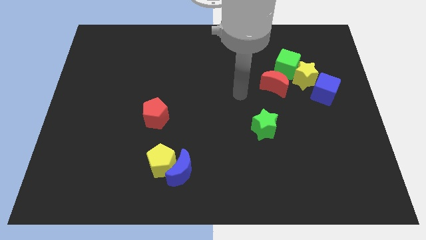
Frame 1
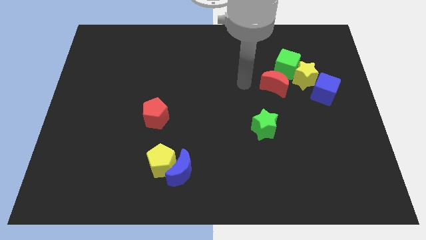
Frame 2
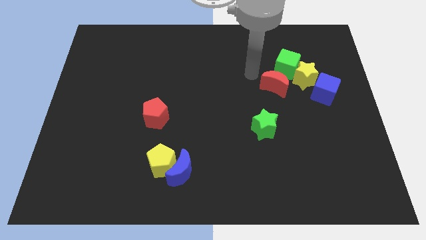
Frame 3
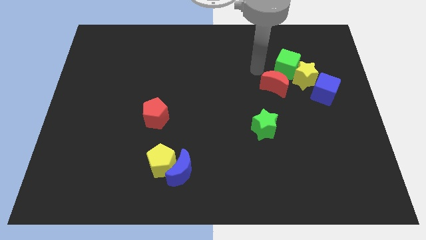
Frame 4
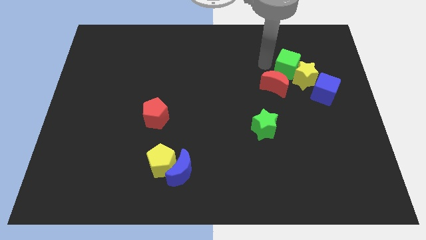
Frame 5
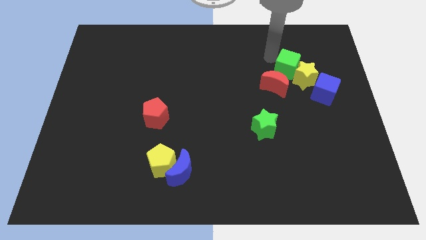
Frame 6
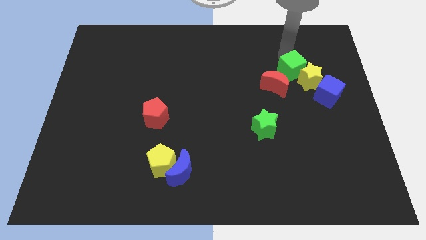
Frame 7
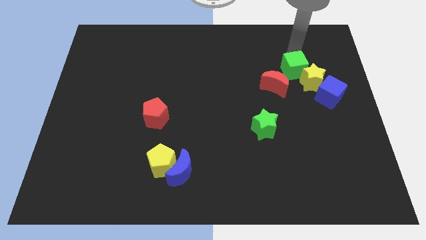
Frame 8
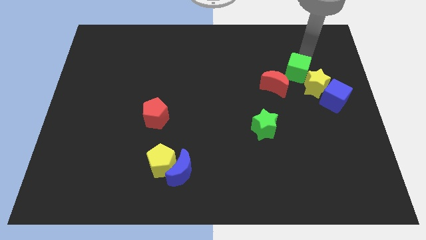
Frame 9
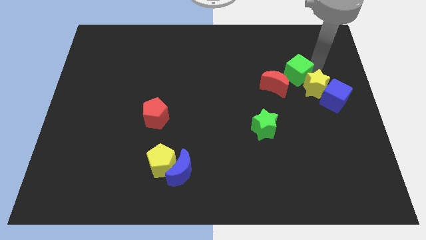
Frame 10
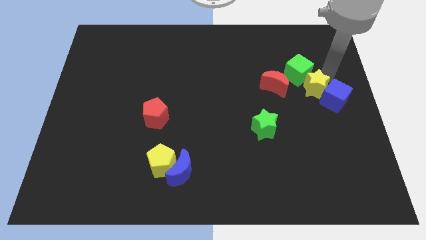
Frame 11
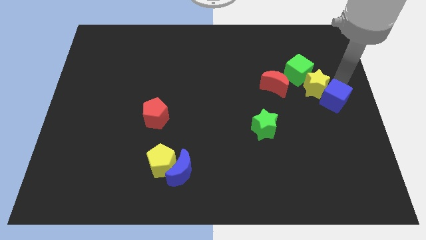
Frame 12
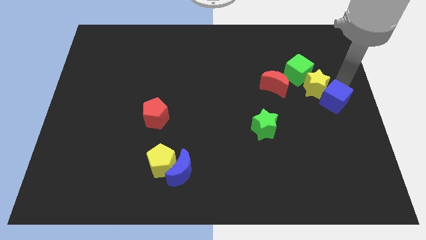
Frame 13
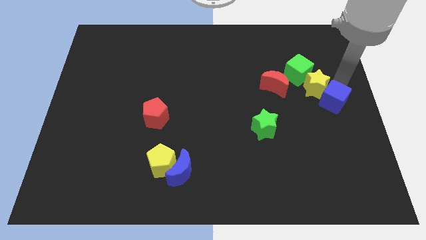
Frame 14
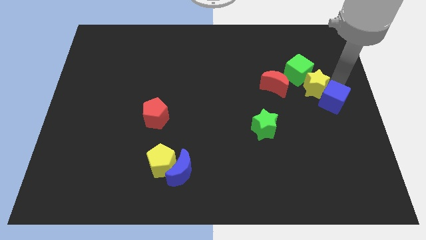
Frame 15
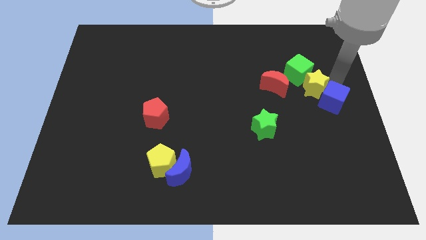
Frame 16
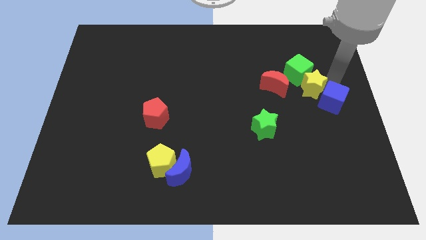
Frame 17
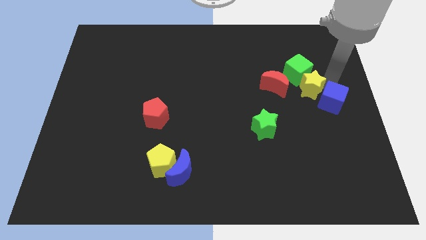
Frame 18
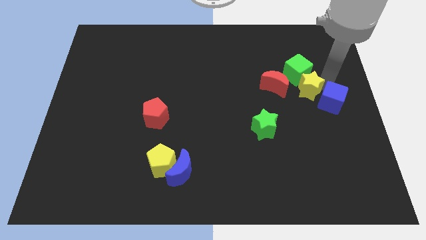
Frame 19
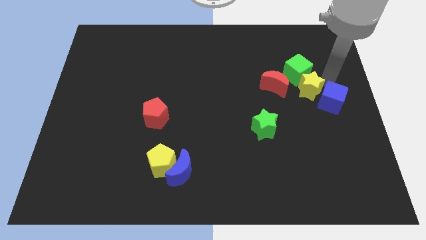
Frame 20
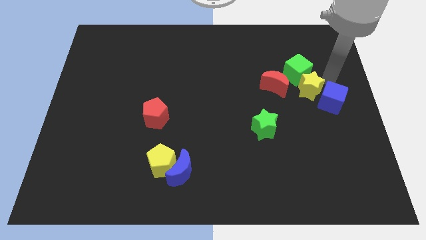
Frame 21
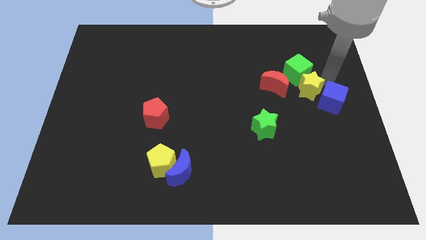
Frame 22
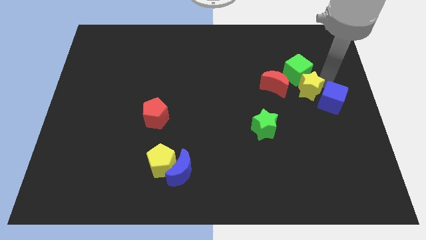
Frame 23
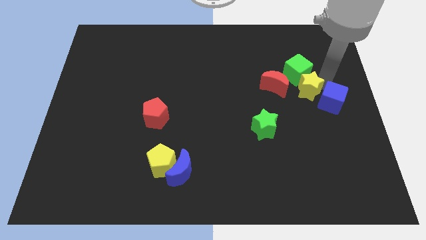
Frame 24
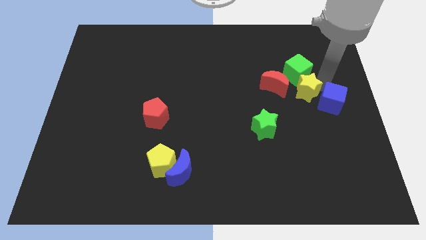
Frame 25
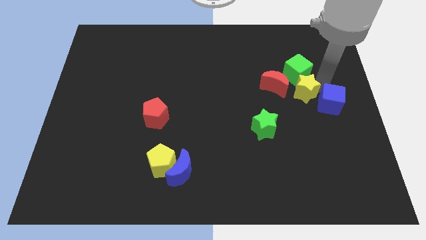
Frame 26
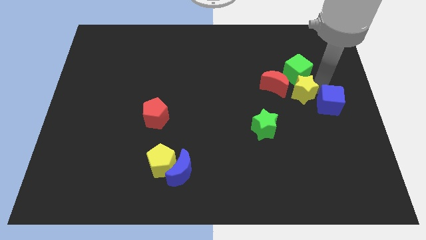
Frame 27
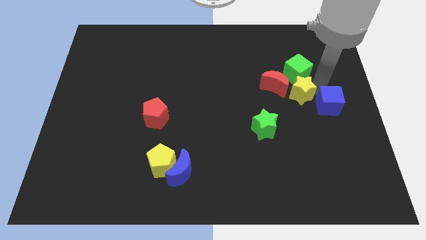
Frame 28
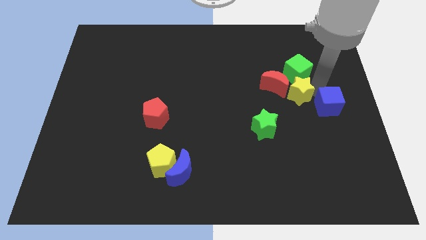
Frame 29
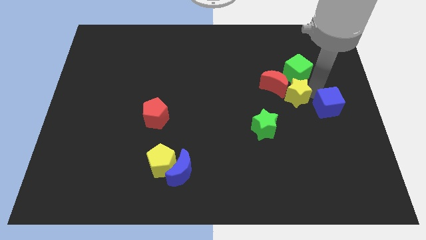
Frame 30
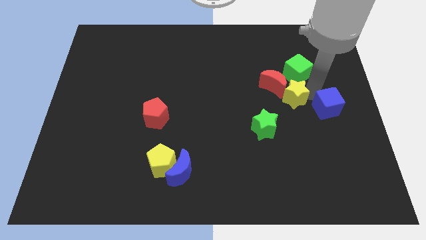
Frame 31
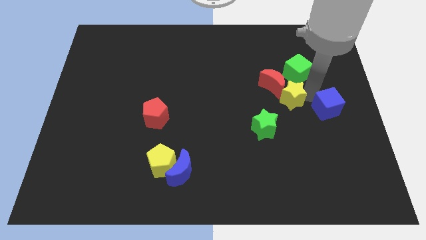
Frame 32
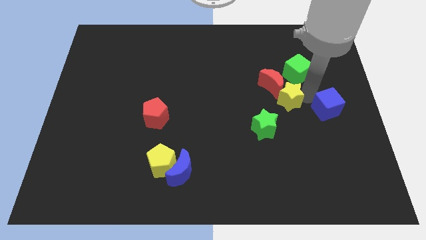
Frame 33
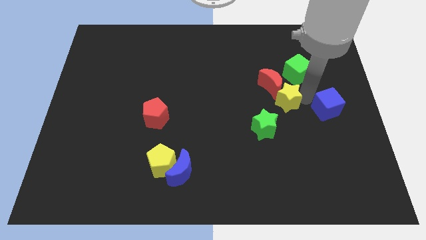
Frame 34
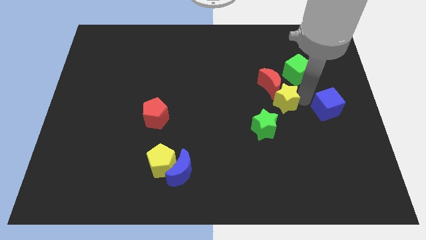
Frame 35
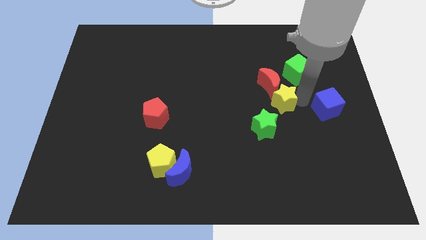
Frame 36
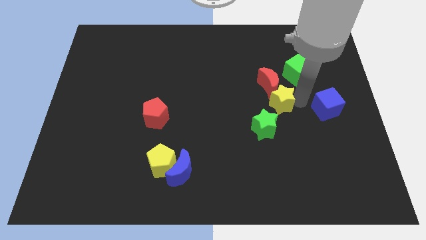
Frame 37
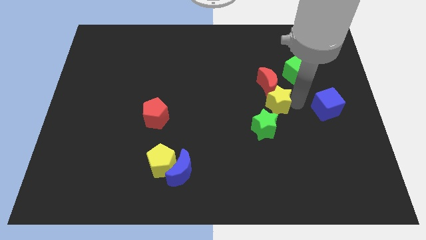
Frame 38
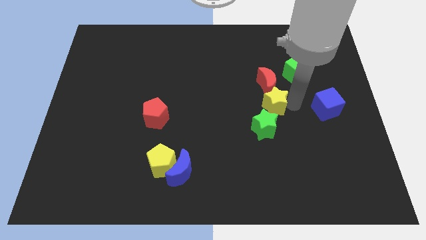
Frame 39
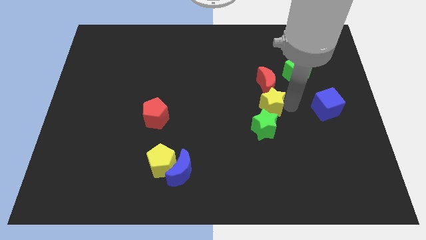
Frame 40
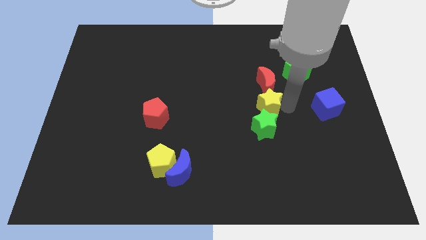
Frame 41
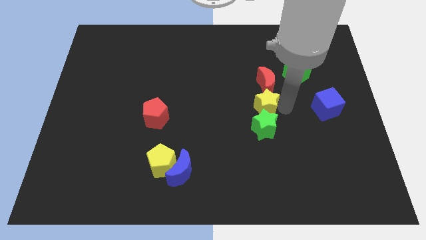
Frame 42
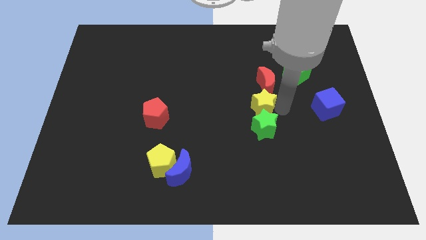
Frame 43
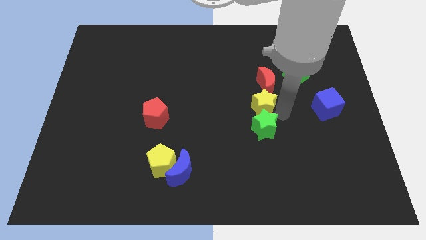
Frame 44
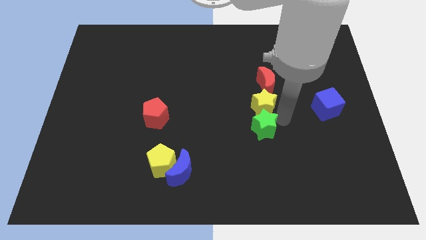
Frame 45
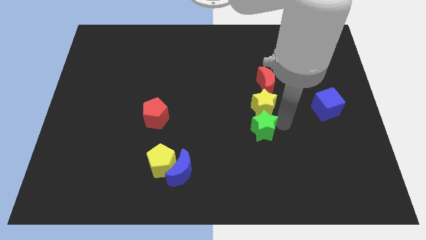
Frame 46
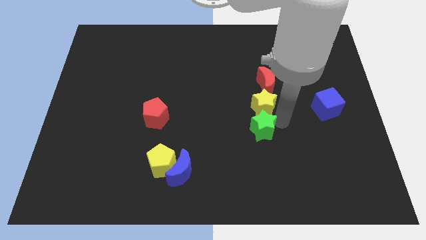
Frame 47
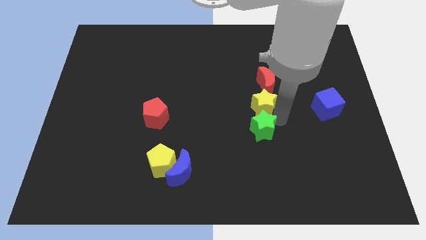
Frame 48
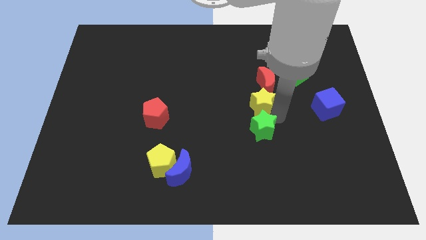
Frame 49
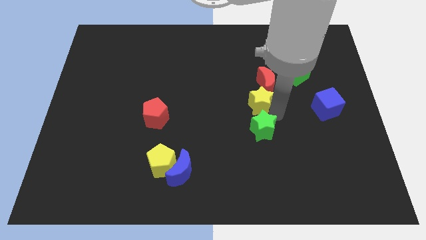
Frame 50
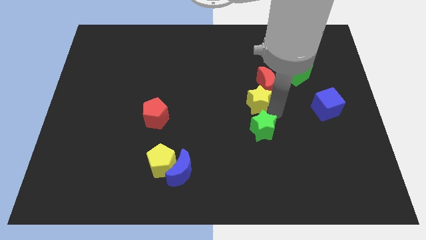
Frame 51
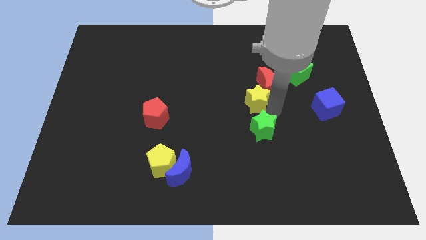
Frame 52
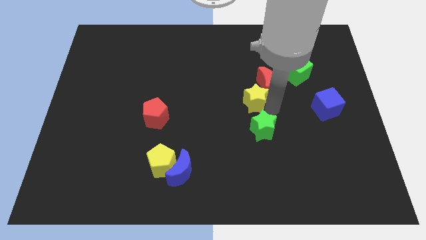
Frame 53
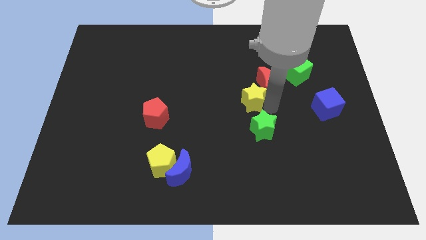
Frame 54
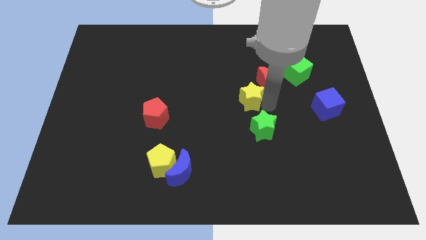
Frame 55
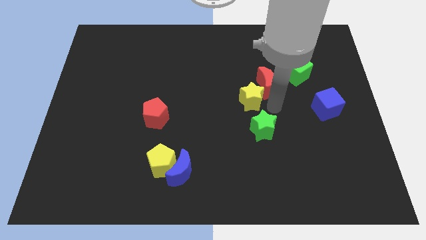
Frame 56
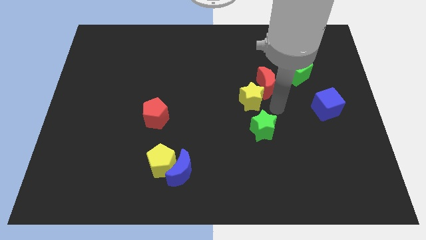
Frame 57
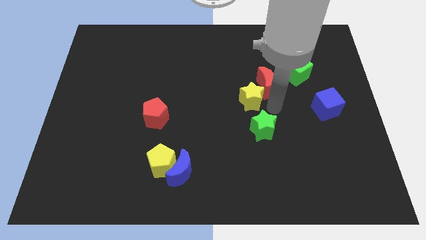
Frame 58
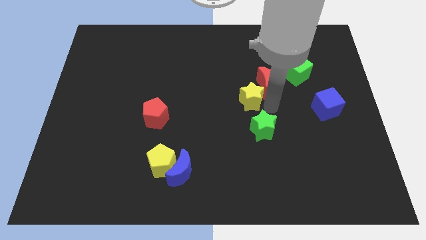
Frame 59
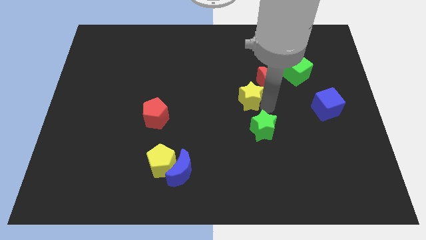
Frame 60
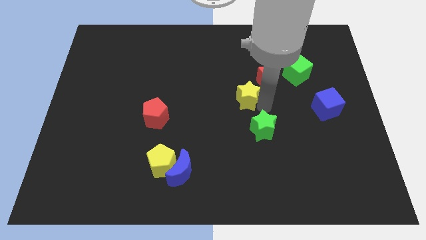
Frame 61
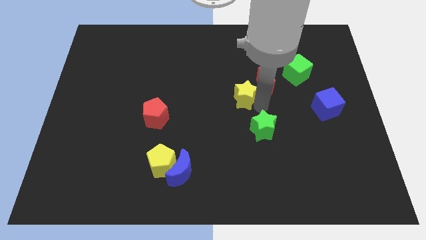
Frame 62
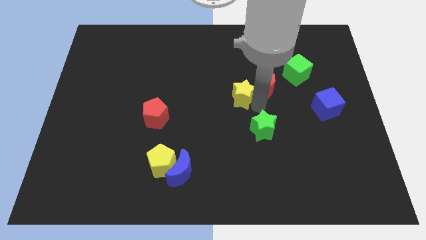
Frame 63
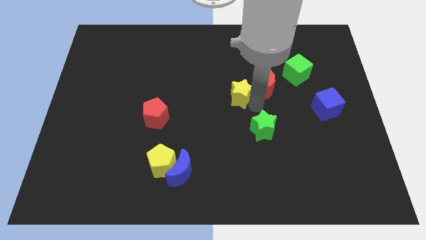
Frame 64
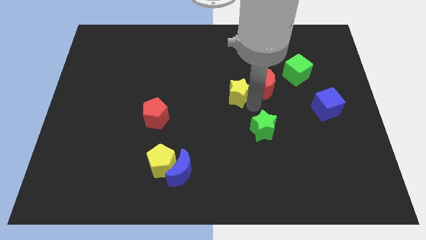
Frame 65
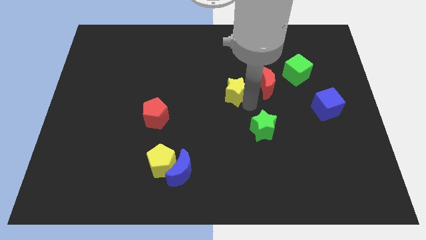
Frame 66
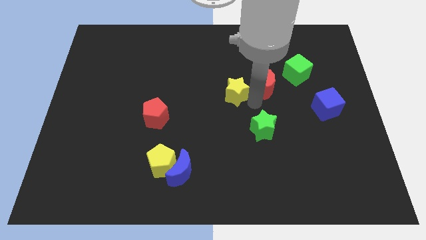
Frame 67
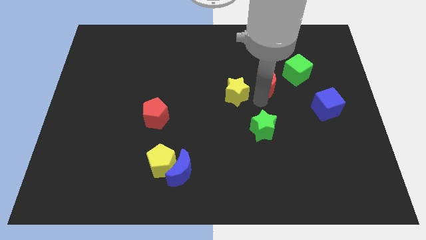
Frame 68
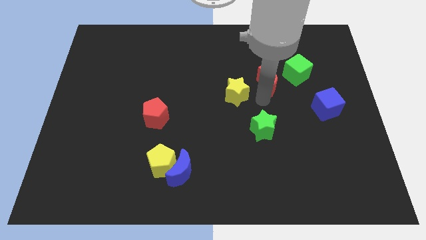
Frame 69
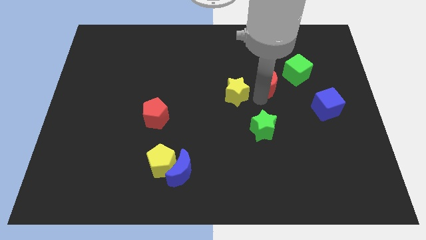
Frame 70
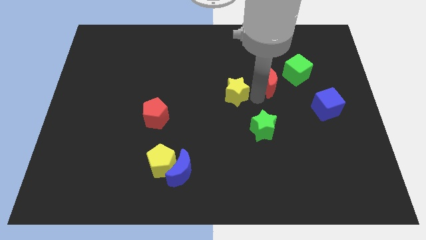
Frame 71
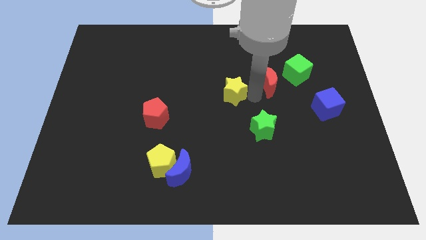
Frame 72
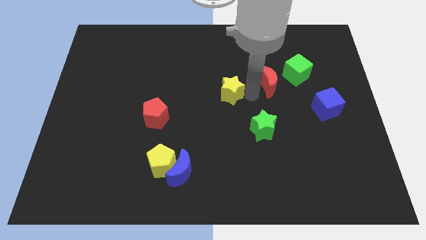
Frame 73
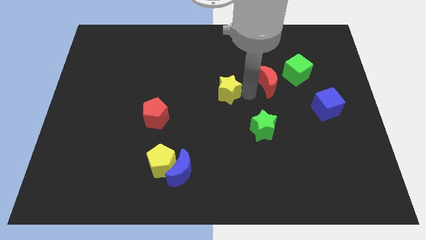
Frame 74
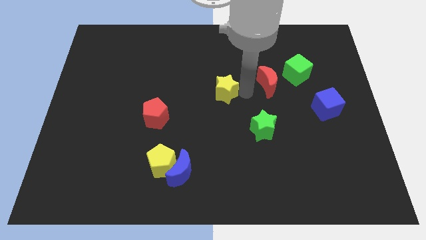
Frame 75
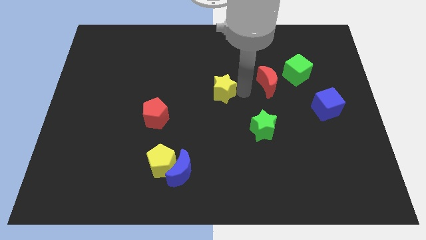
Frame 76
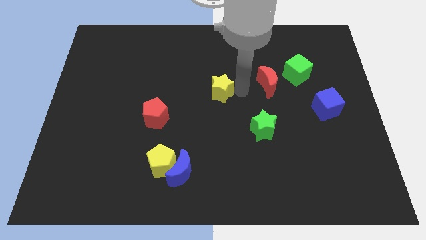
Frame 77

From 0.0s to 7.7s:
push the yellow star to the left

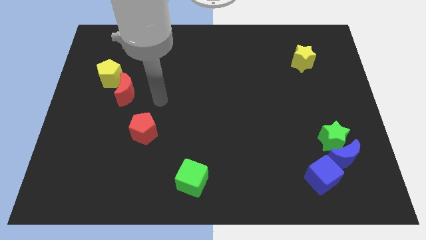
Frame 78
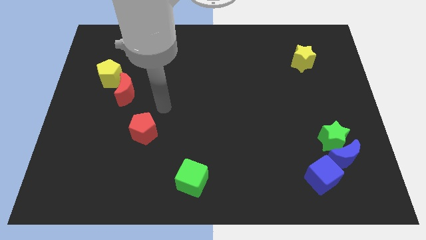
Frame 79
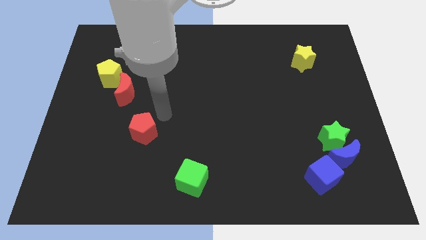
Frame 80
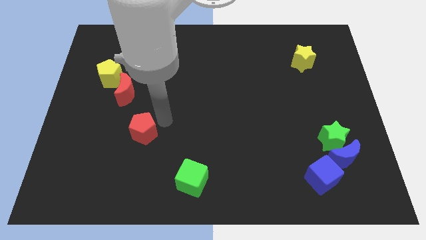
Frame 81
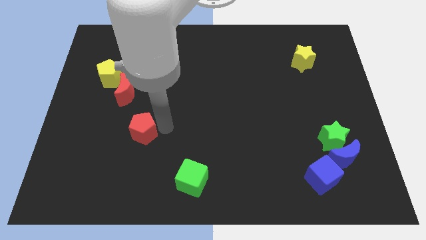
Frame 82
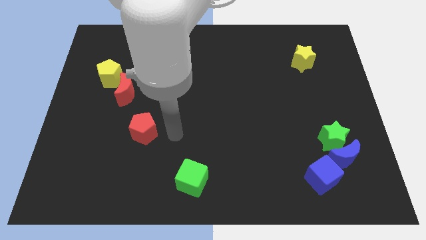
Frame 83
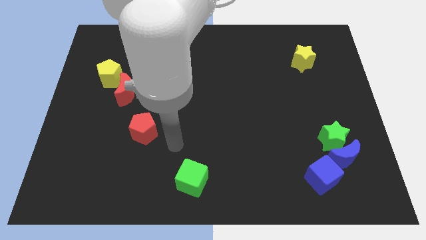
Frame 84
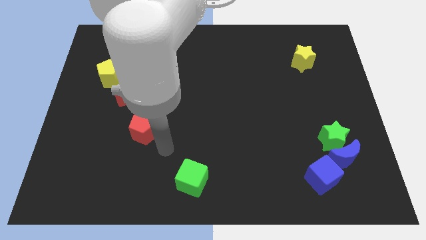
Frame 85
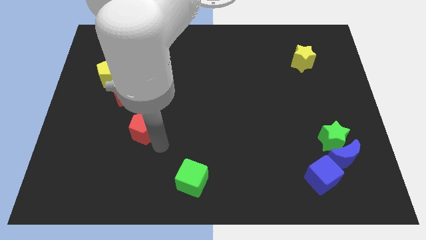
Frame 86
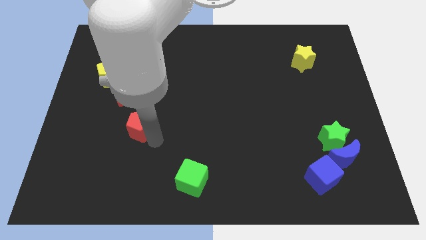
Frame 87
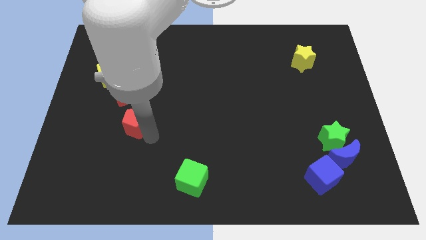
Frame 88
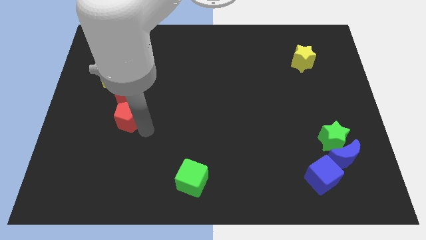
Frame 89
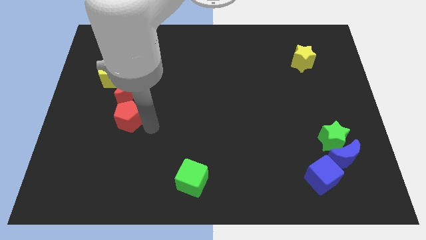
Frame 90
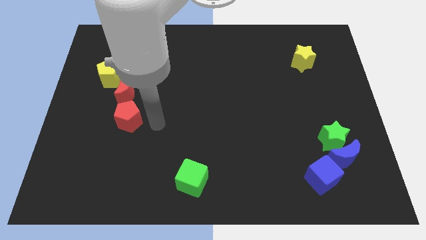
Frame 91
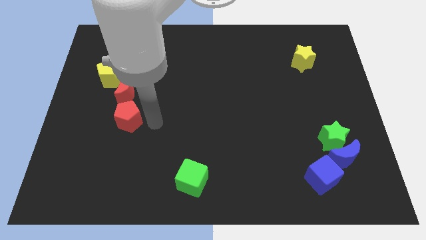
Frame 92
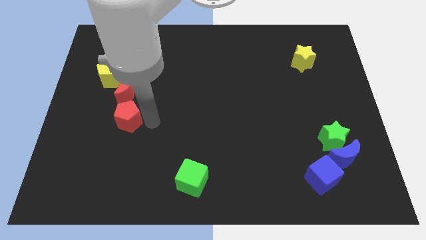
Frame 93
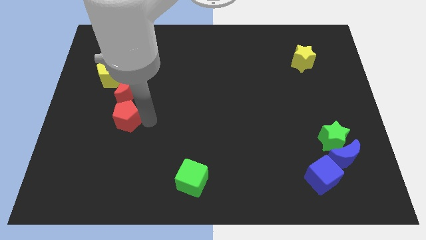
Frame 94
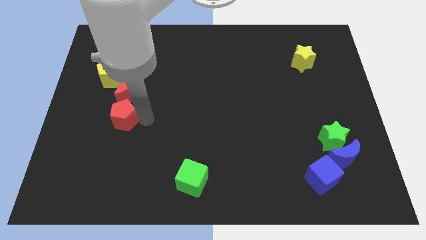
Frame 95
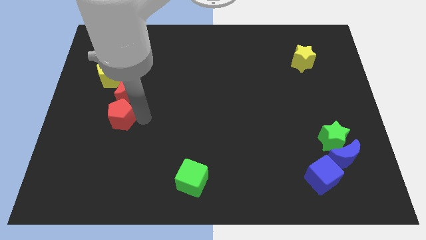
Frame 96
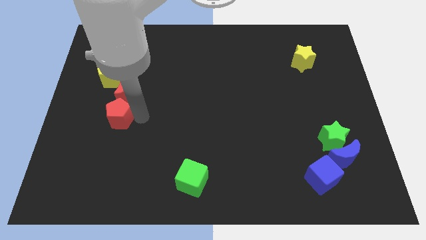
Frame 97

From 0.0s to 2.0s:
slightly move the red pentagon upwards and left diagonally
